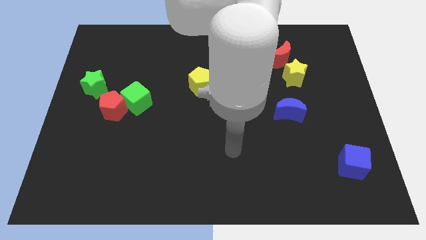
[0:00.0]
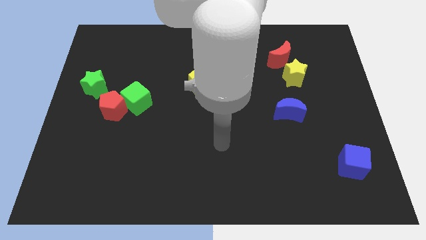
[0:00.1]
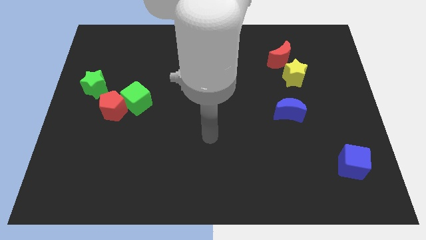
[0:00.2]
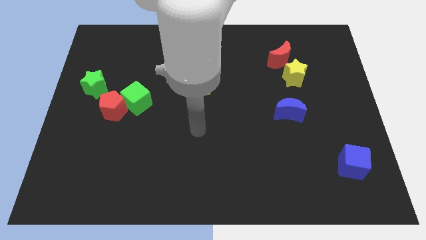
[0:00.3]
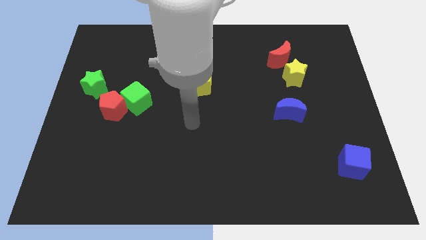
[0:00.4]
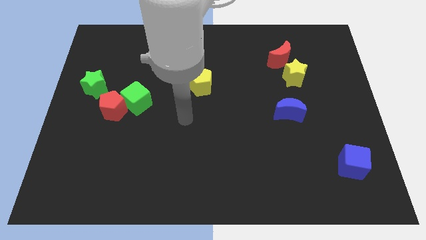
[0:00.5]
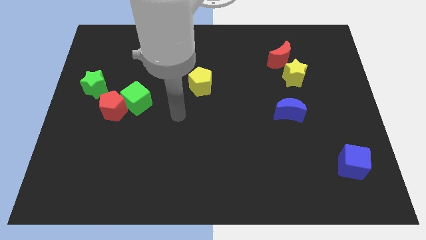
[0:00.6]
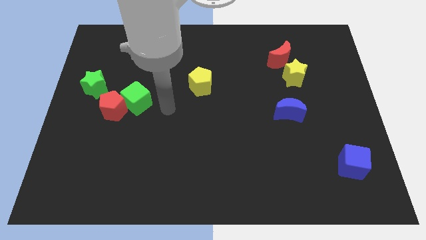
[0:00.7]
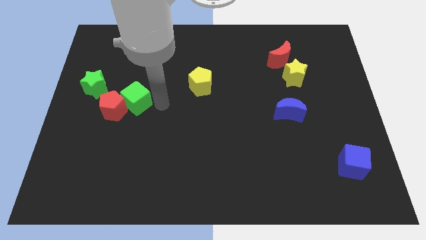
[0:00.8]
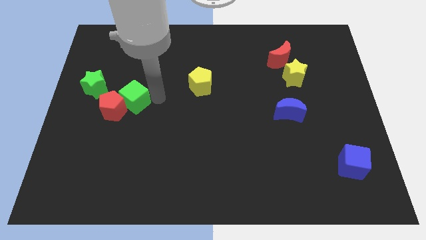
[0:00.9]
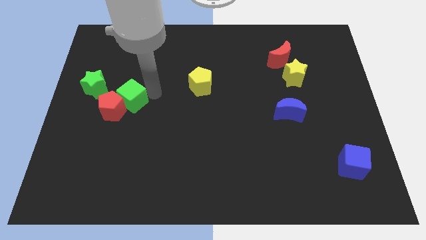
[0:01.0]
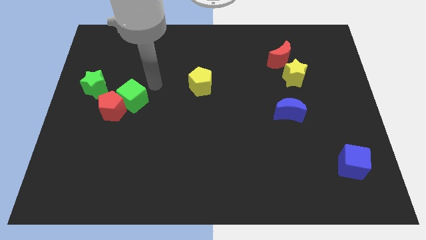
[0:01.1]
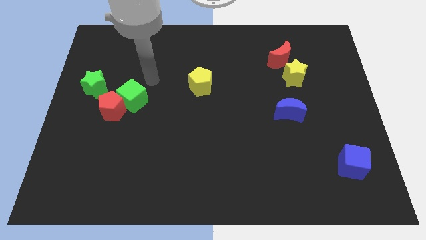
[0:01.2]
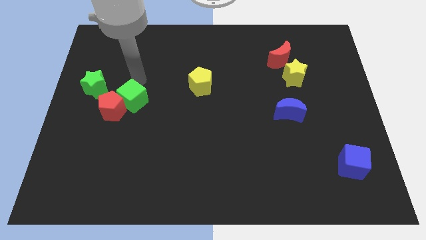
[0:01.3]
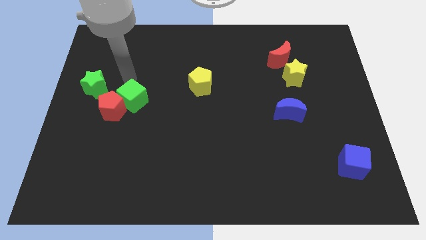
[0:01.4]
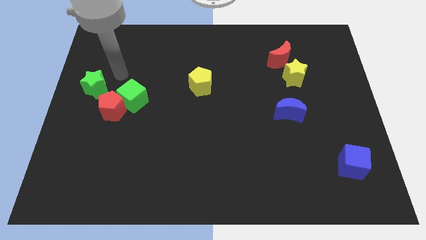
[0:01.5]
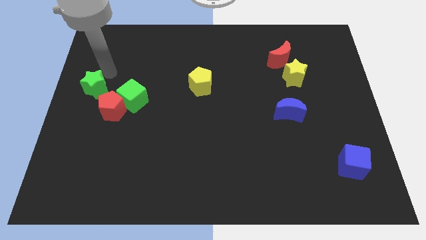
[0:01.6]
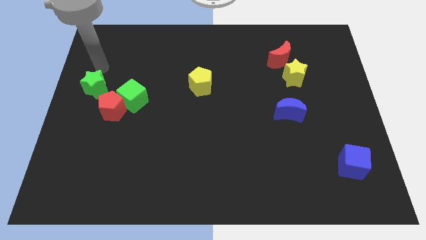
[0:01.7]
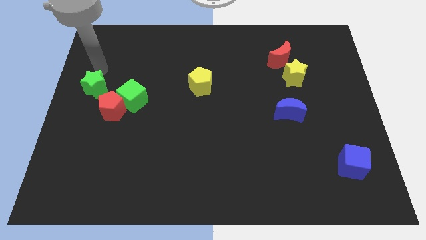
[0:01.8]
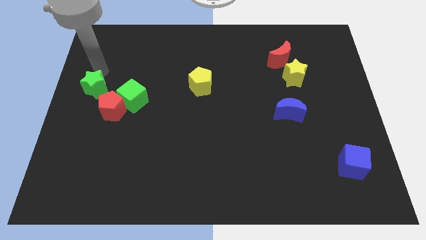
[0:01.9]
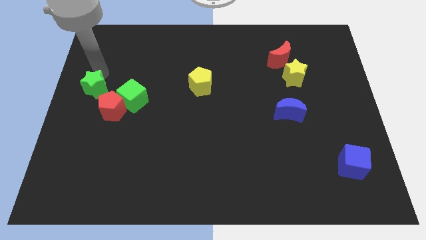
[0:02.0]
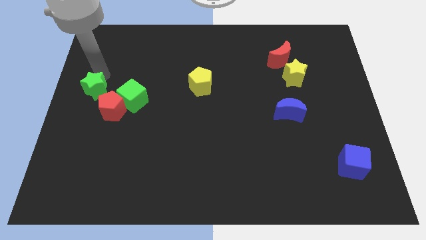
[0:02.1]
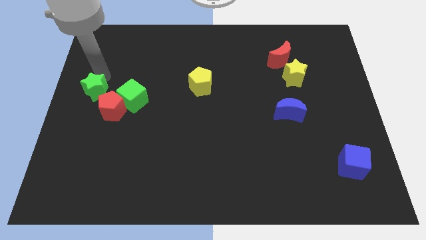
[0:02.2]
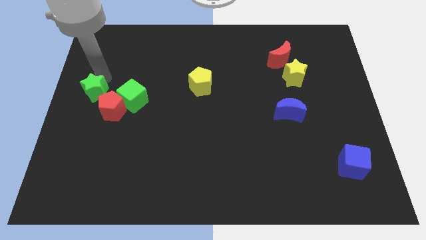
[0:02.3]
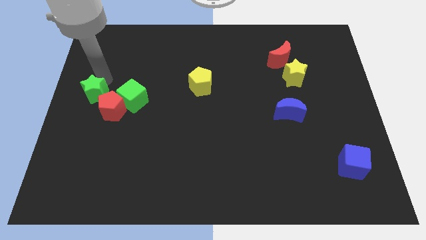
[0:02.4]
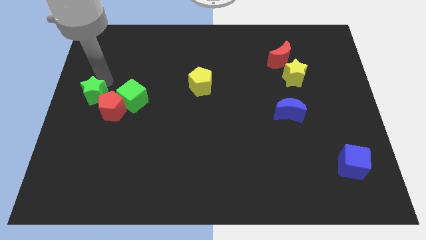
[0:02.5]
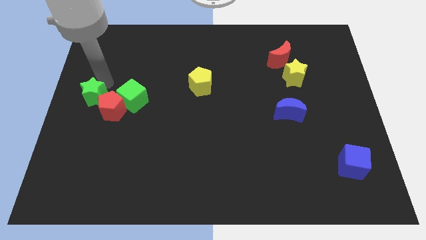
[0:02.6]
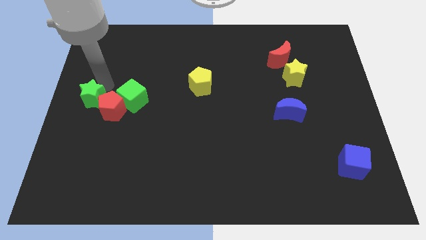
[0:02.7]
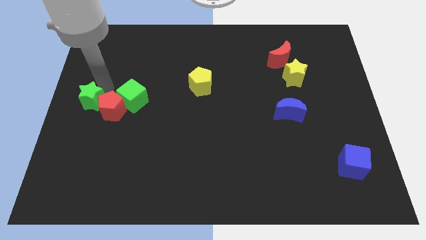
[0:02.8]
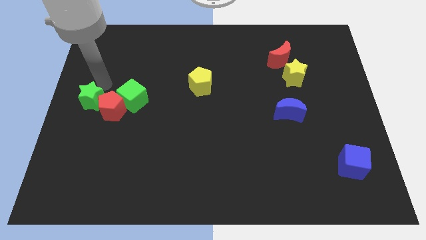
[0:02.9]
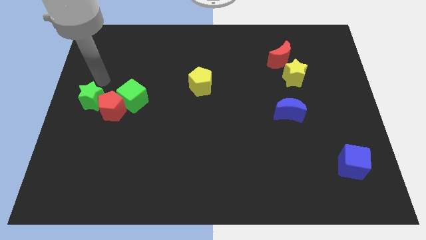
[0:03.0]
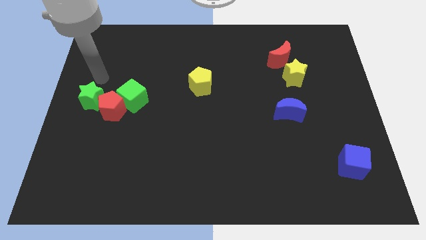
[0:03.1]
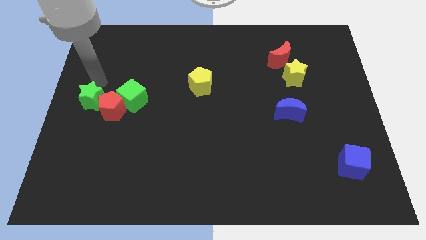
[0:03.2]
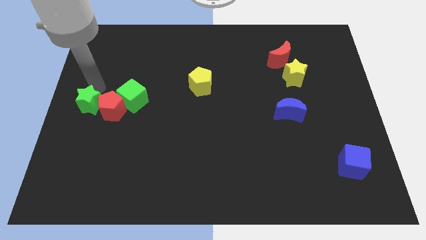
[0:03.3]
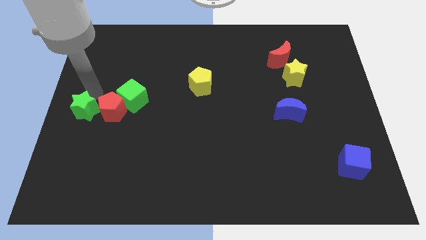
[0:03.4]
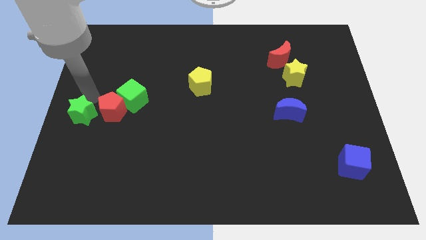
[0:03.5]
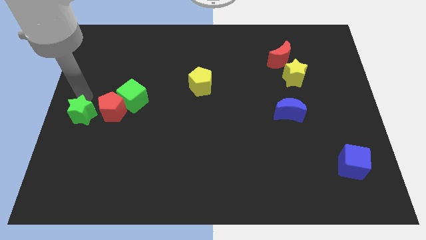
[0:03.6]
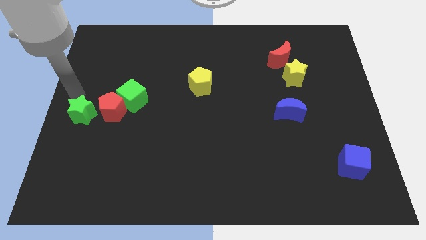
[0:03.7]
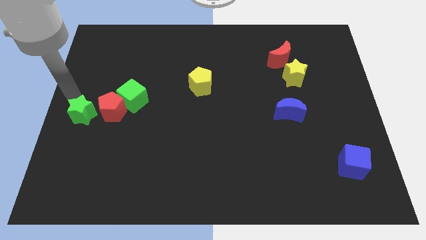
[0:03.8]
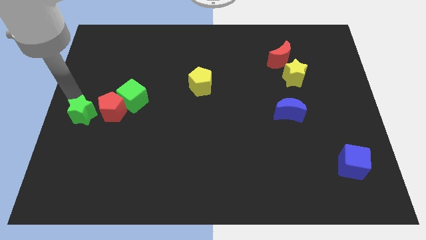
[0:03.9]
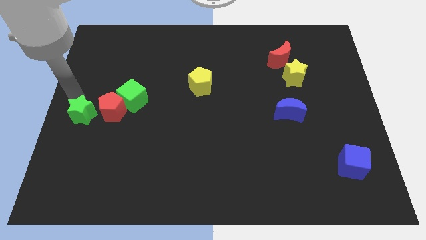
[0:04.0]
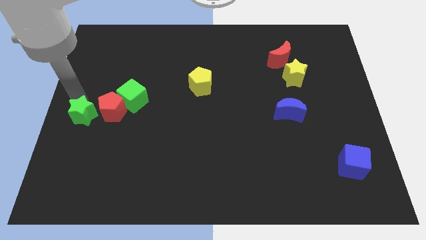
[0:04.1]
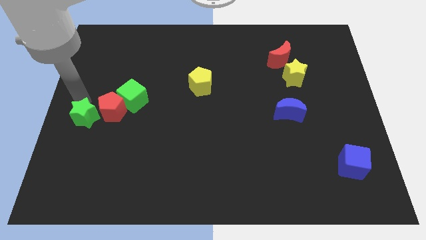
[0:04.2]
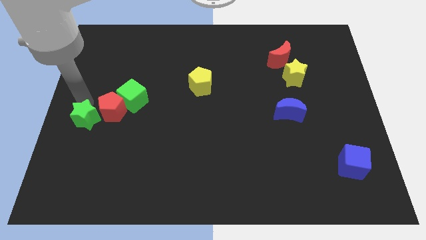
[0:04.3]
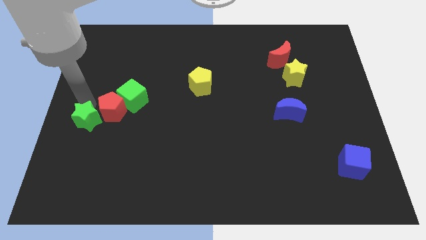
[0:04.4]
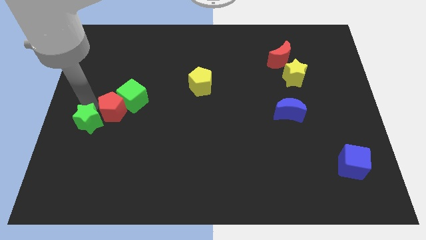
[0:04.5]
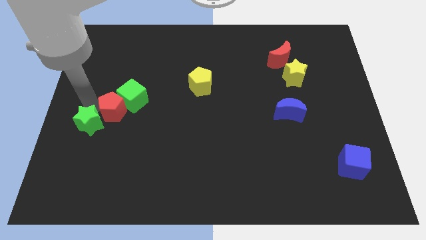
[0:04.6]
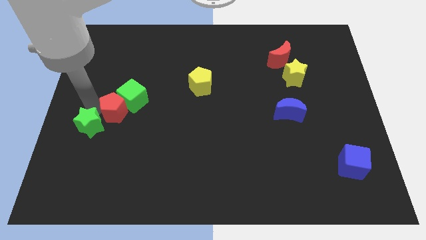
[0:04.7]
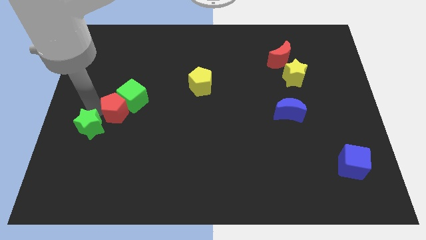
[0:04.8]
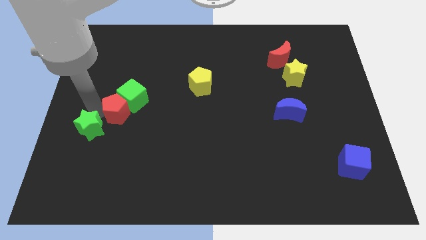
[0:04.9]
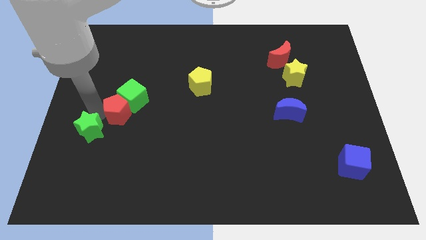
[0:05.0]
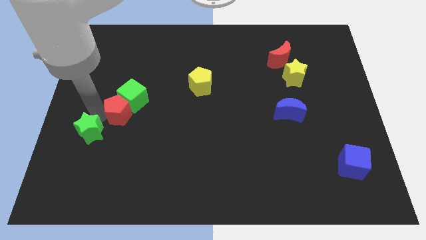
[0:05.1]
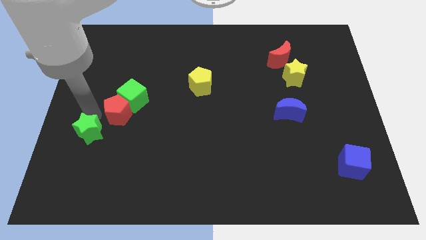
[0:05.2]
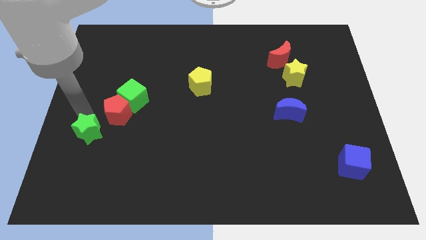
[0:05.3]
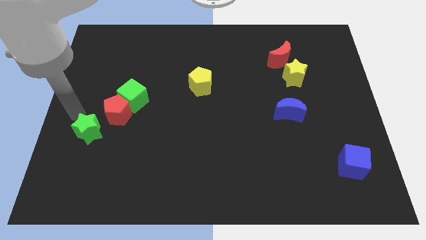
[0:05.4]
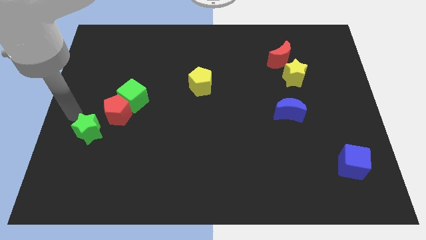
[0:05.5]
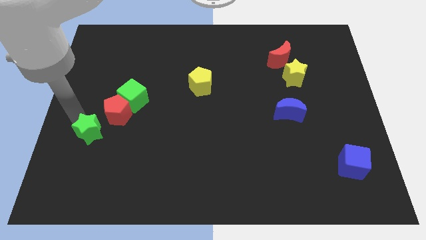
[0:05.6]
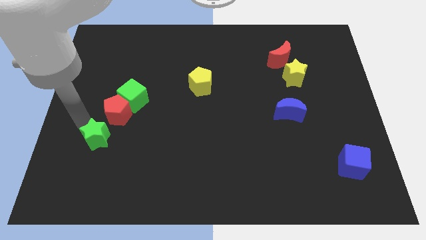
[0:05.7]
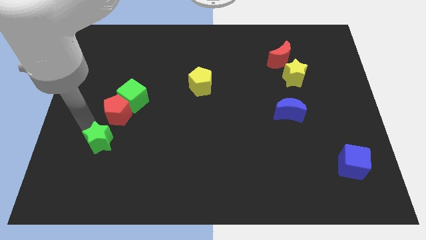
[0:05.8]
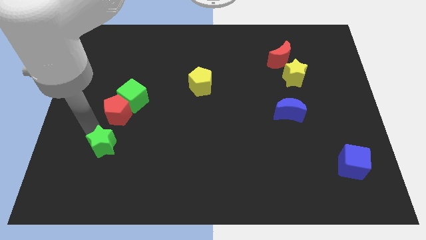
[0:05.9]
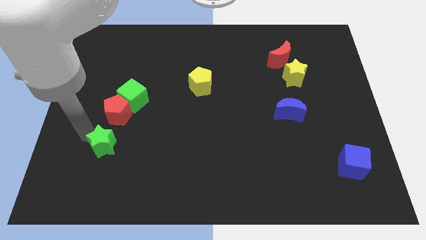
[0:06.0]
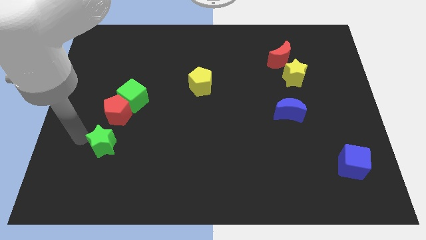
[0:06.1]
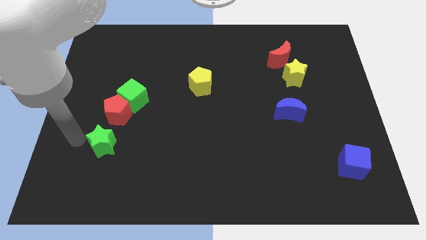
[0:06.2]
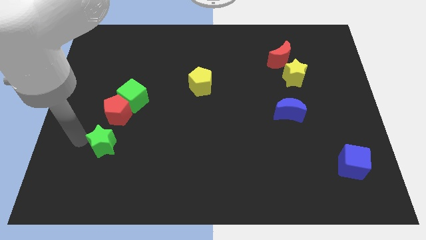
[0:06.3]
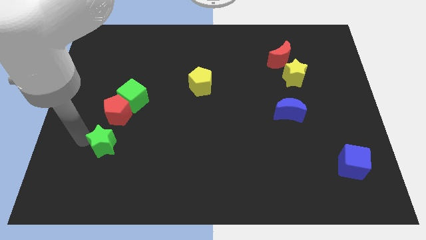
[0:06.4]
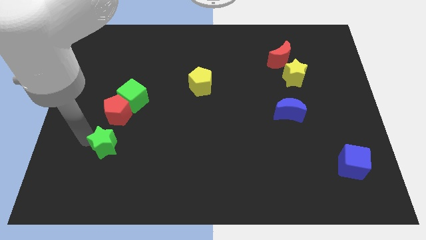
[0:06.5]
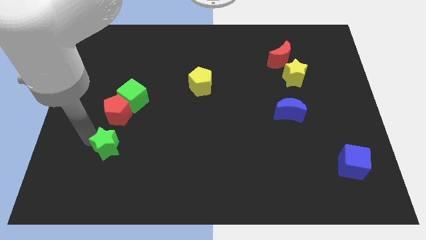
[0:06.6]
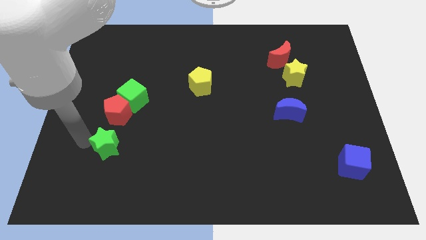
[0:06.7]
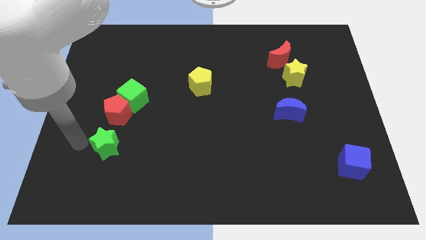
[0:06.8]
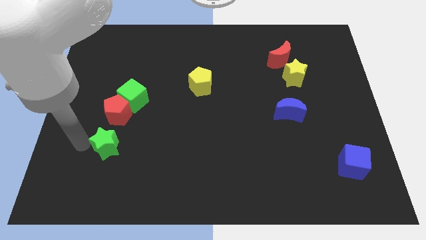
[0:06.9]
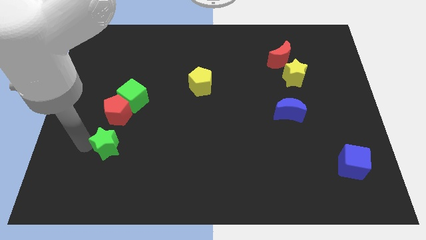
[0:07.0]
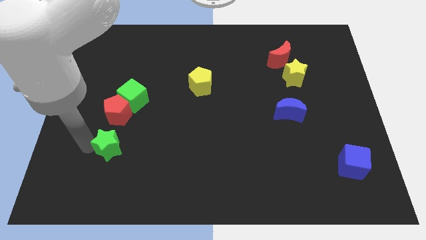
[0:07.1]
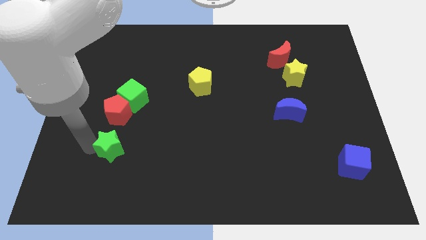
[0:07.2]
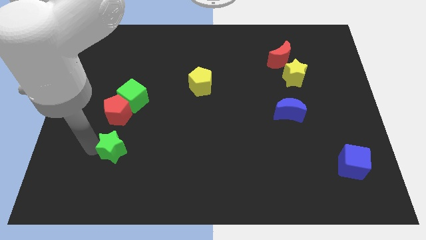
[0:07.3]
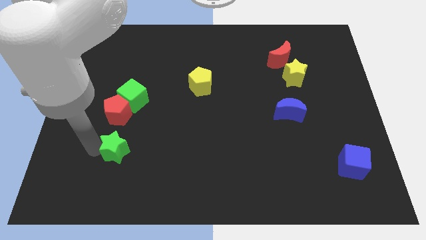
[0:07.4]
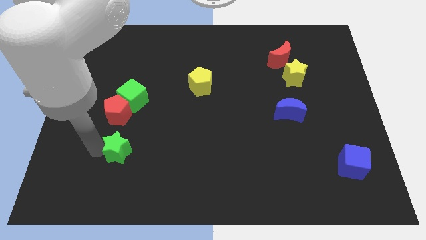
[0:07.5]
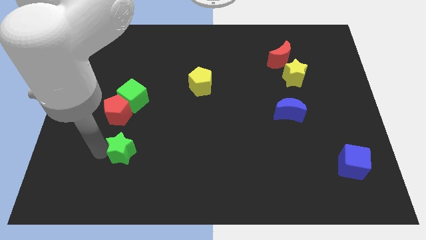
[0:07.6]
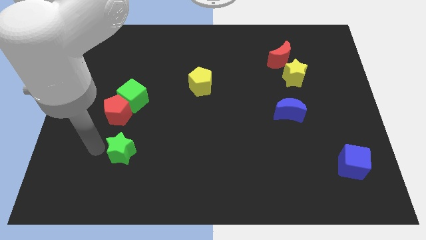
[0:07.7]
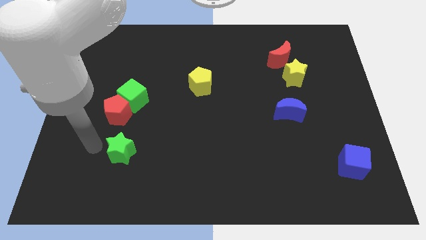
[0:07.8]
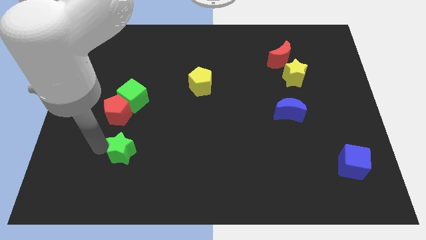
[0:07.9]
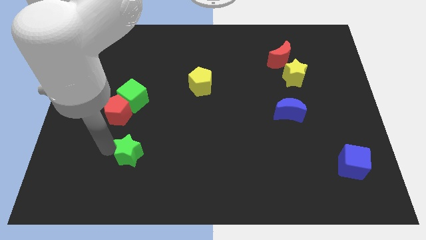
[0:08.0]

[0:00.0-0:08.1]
move the green star downwards and to the right
